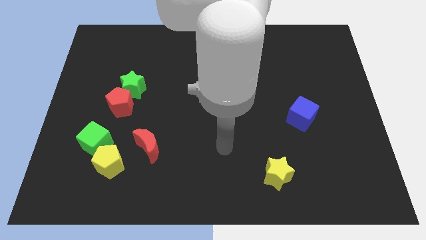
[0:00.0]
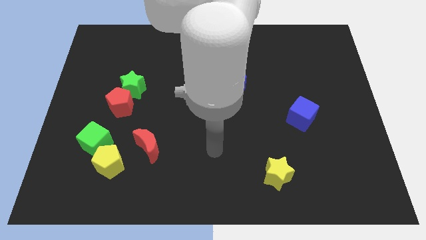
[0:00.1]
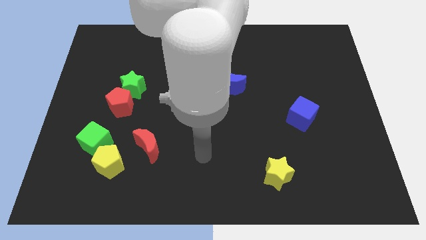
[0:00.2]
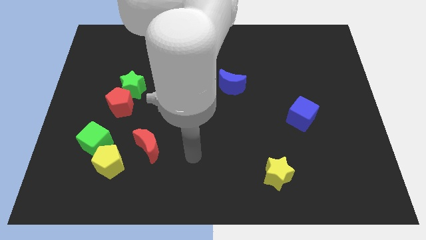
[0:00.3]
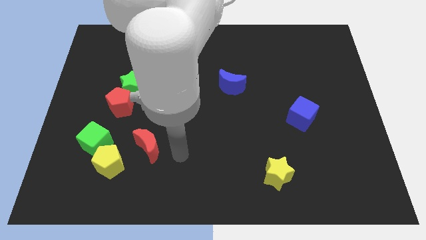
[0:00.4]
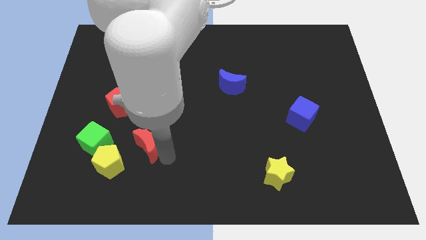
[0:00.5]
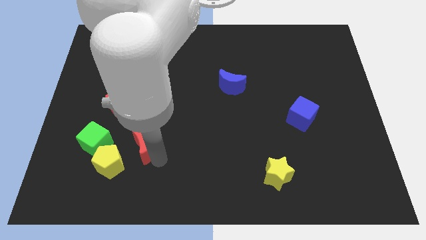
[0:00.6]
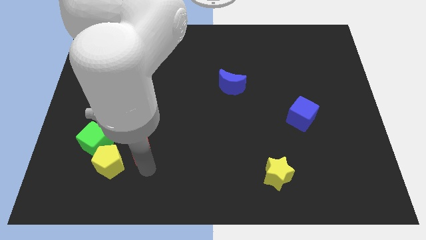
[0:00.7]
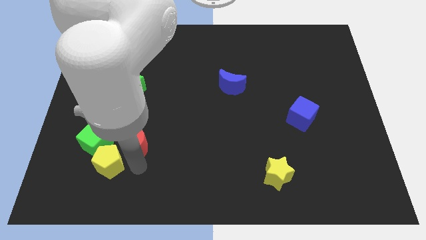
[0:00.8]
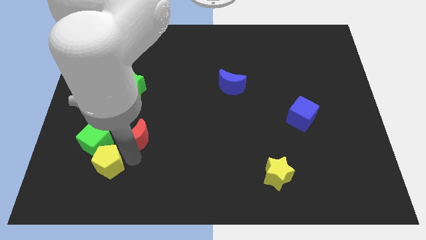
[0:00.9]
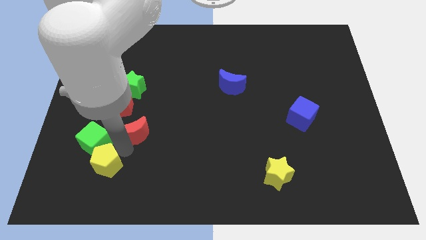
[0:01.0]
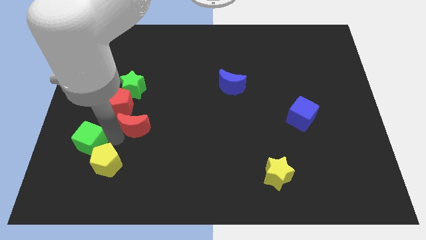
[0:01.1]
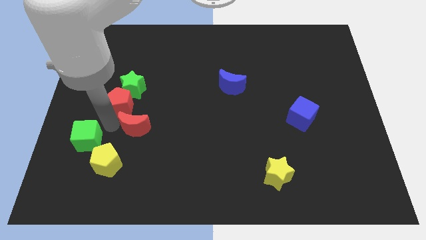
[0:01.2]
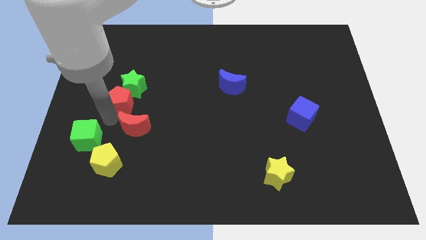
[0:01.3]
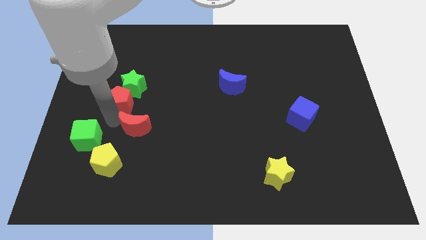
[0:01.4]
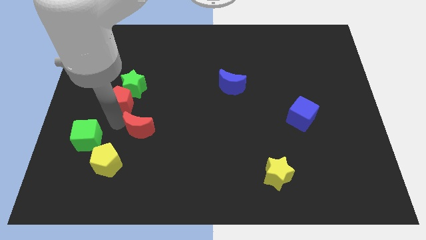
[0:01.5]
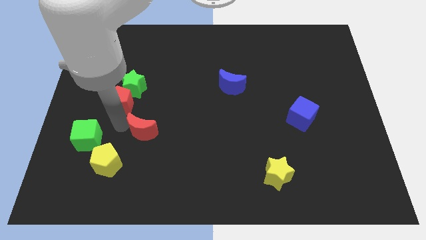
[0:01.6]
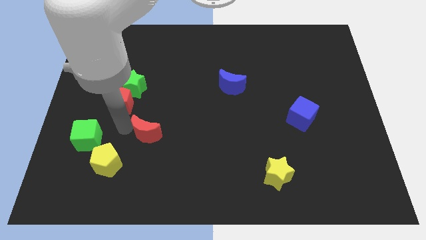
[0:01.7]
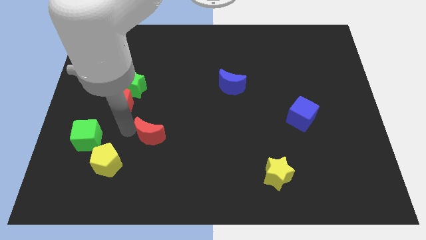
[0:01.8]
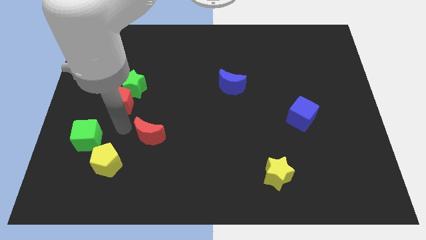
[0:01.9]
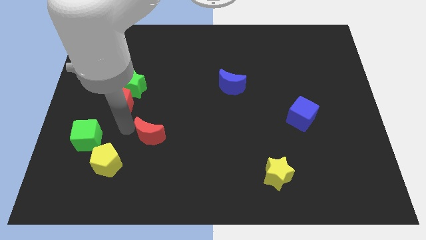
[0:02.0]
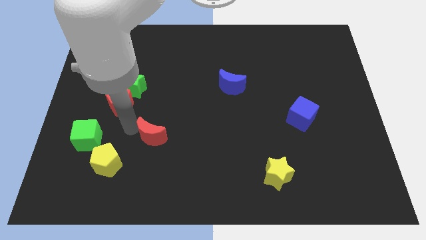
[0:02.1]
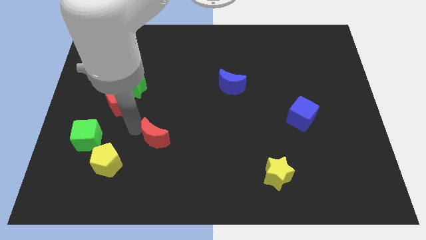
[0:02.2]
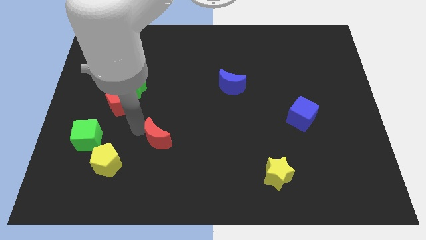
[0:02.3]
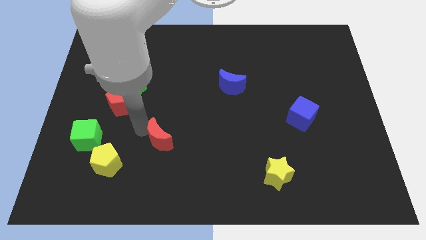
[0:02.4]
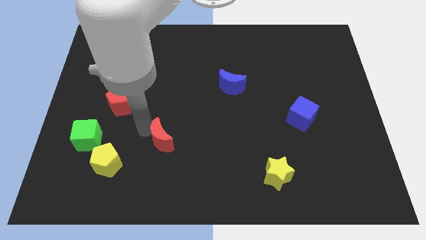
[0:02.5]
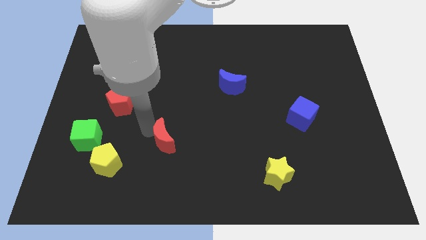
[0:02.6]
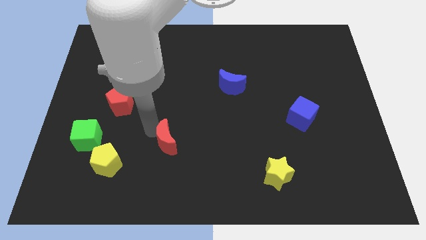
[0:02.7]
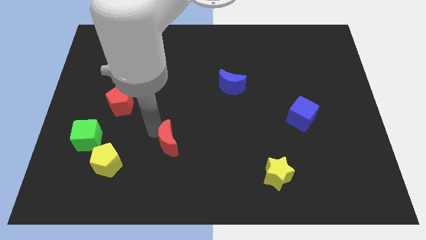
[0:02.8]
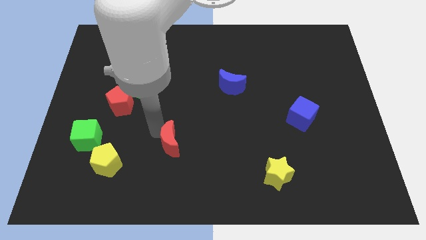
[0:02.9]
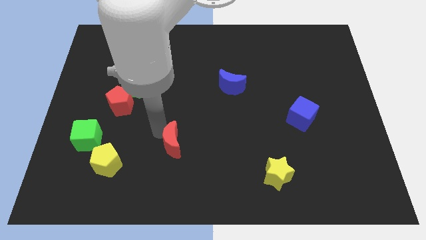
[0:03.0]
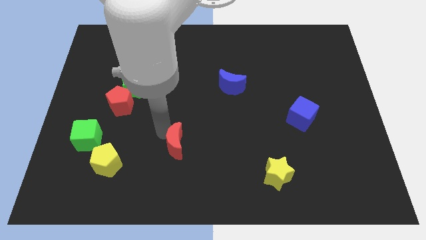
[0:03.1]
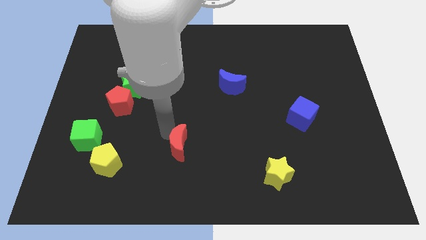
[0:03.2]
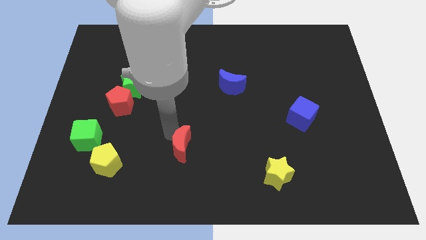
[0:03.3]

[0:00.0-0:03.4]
slide the red moon to the right a bit

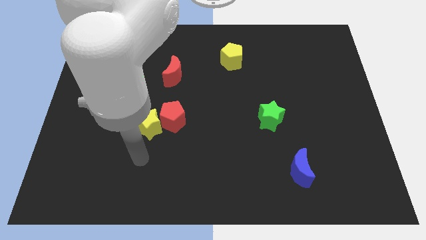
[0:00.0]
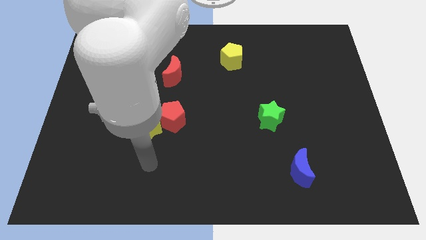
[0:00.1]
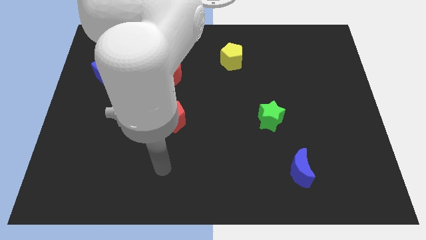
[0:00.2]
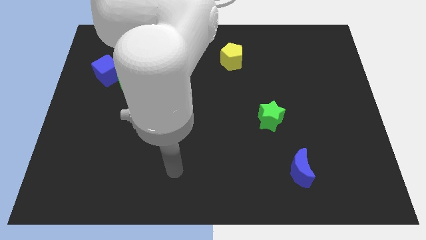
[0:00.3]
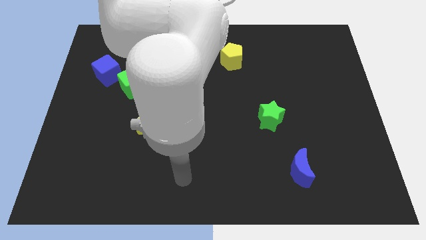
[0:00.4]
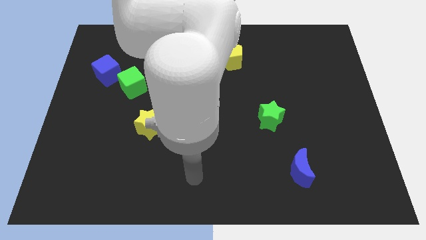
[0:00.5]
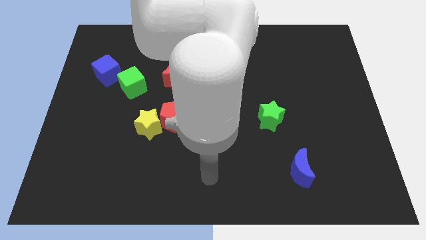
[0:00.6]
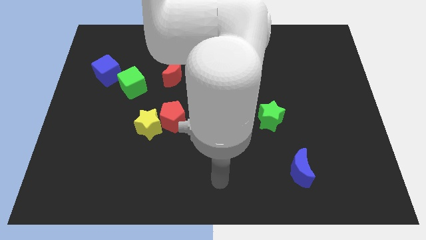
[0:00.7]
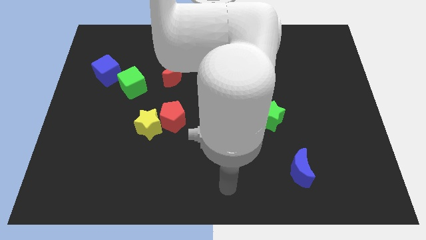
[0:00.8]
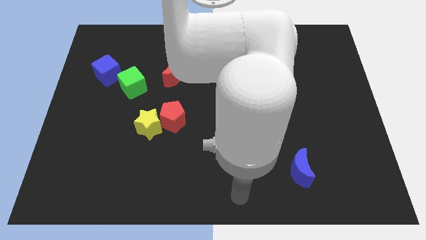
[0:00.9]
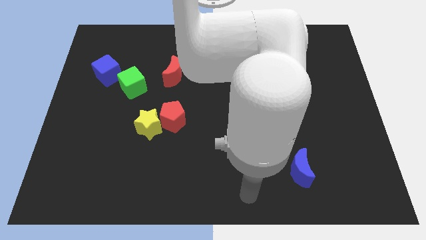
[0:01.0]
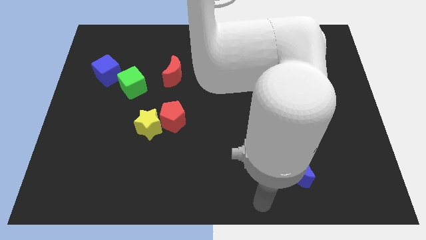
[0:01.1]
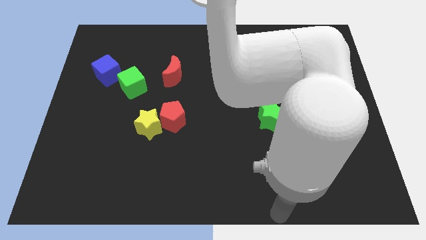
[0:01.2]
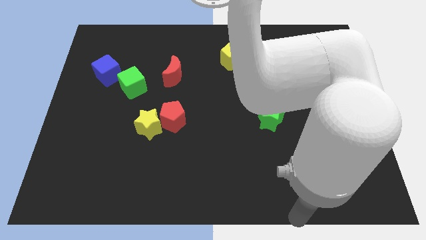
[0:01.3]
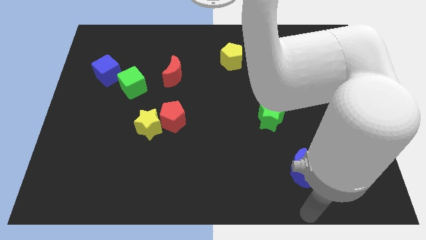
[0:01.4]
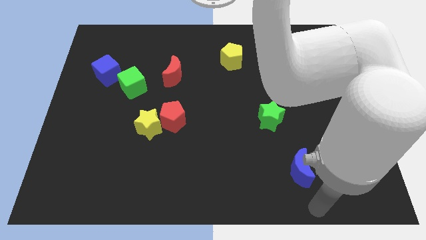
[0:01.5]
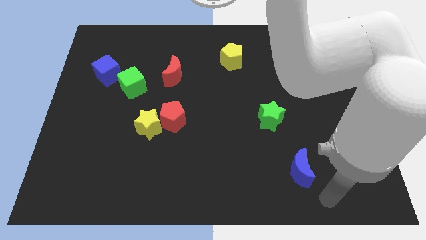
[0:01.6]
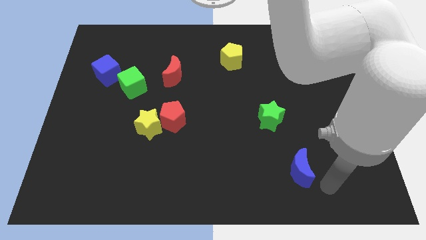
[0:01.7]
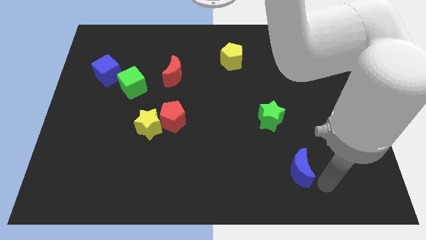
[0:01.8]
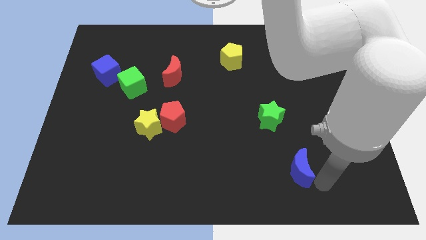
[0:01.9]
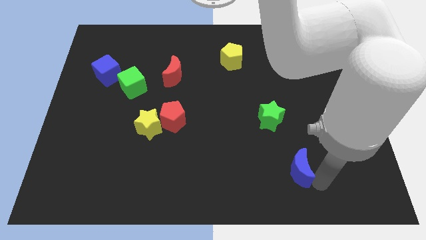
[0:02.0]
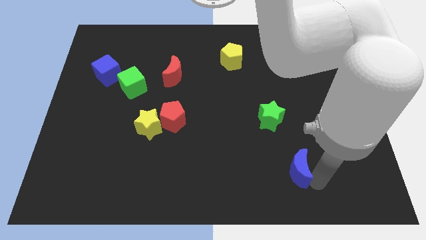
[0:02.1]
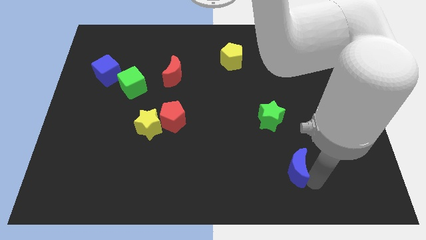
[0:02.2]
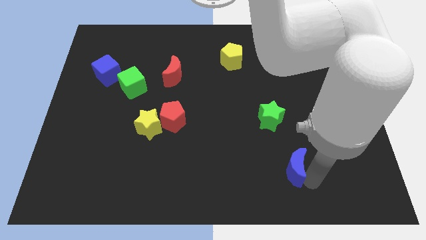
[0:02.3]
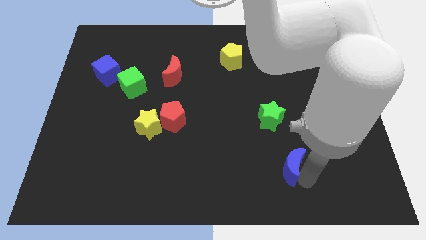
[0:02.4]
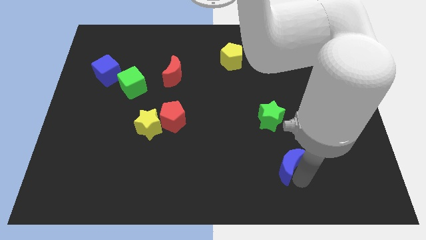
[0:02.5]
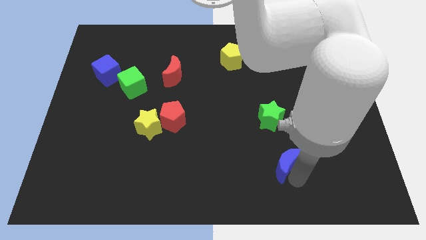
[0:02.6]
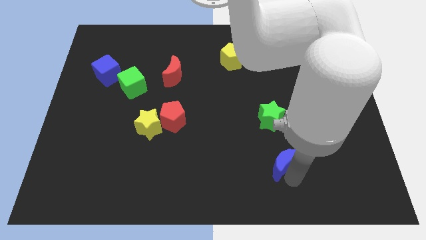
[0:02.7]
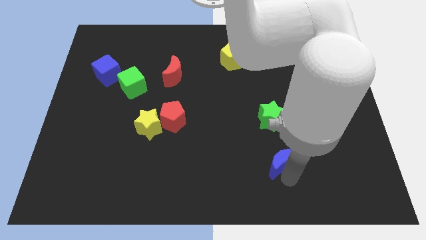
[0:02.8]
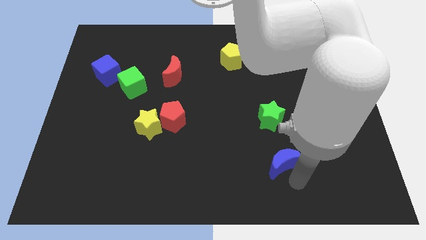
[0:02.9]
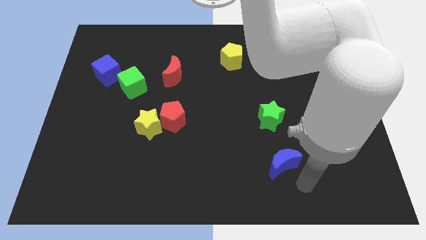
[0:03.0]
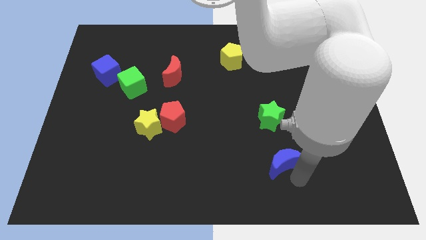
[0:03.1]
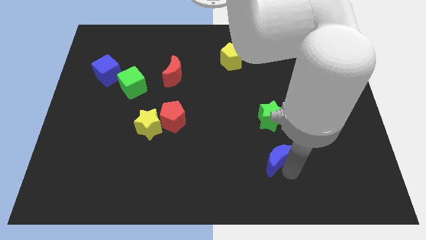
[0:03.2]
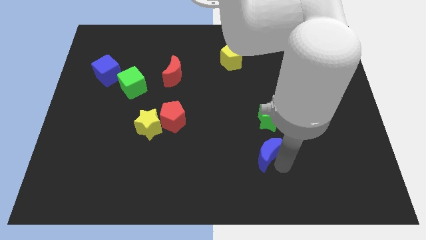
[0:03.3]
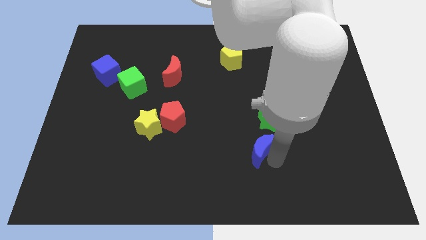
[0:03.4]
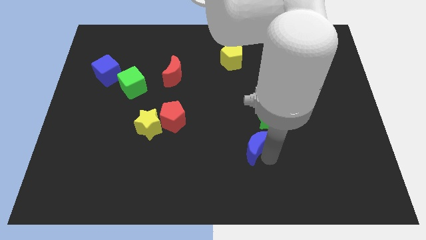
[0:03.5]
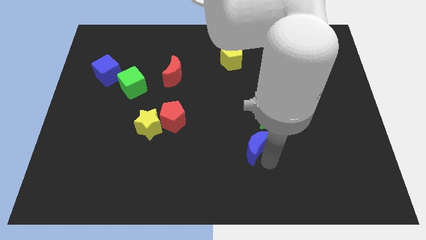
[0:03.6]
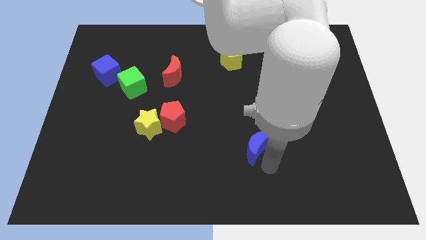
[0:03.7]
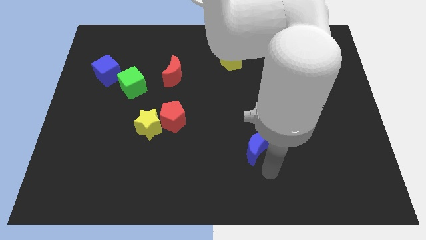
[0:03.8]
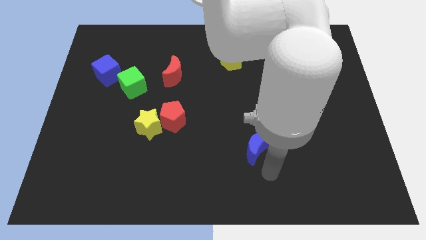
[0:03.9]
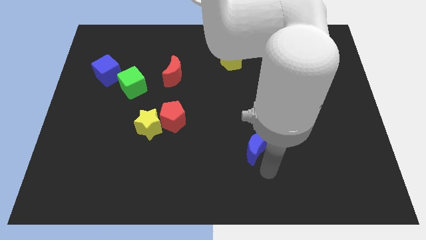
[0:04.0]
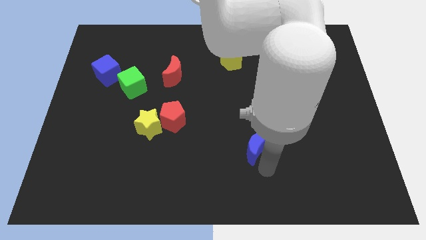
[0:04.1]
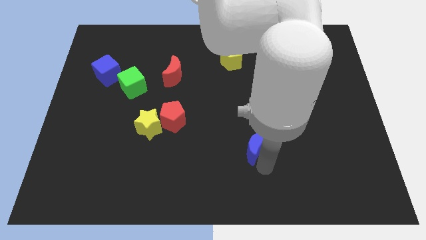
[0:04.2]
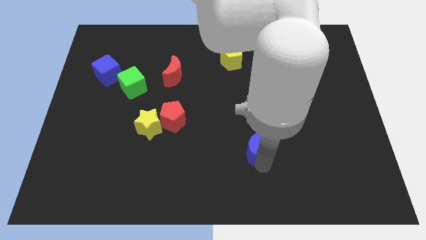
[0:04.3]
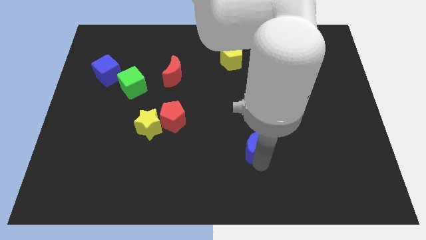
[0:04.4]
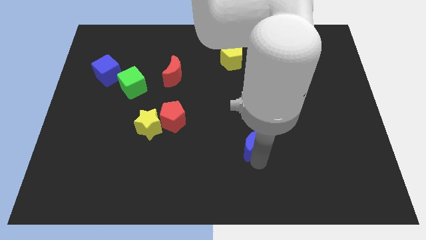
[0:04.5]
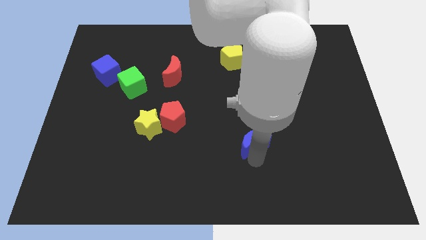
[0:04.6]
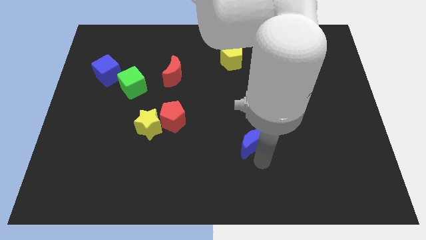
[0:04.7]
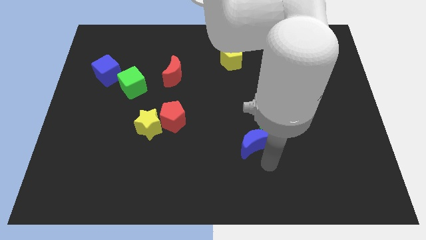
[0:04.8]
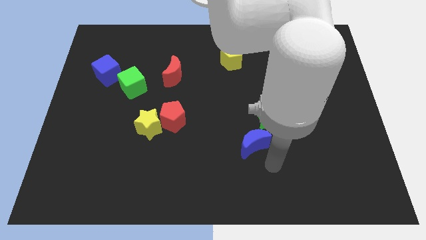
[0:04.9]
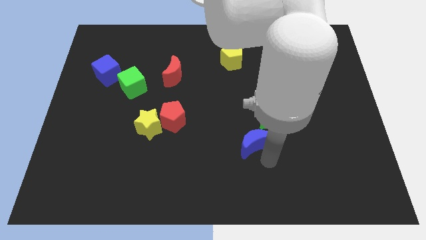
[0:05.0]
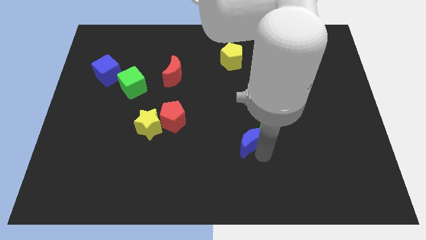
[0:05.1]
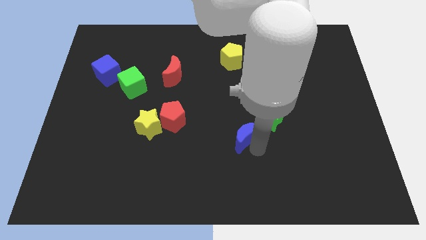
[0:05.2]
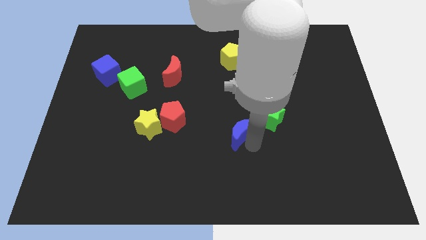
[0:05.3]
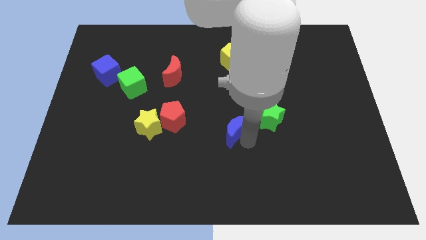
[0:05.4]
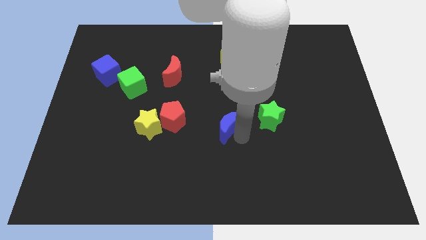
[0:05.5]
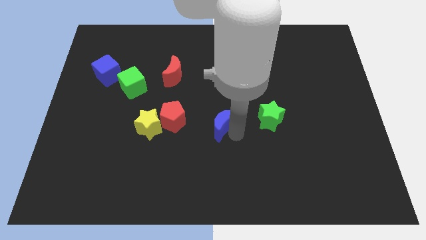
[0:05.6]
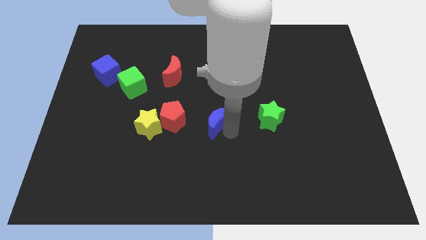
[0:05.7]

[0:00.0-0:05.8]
push the blue moon up and then left
